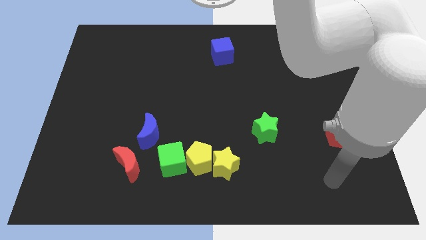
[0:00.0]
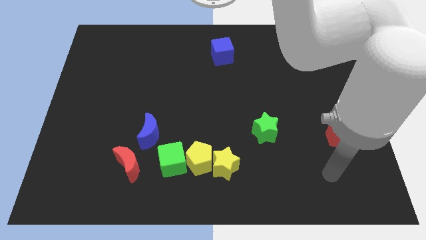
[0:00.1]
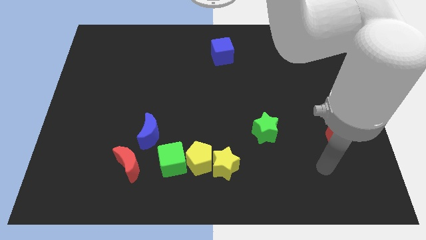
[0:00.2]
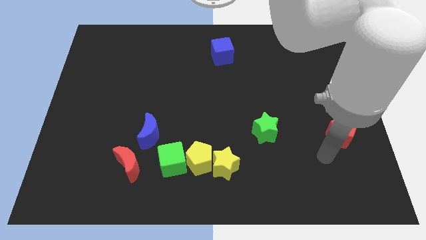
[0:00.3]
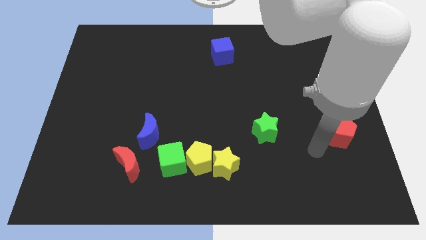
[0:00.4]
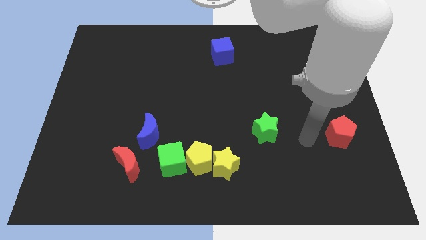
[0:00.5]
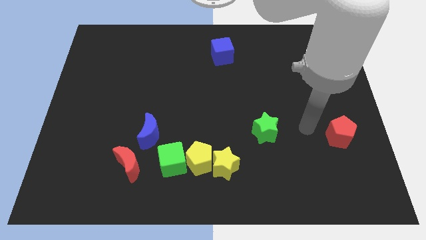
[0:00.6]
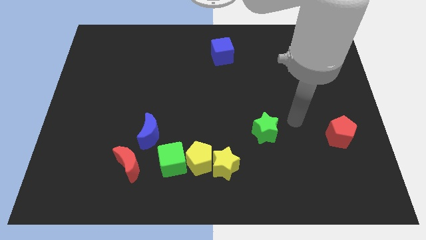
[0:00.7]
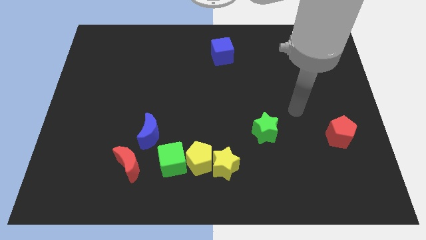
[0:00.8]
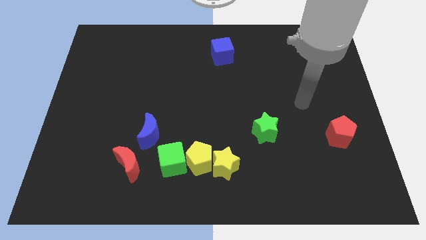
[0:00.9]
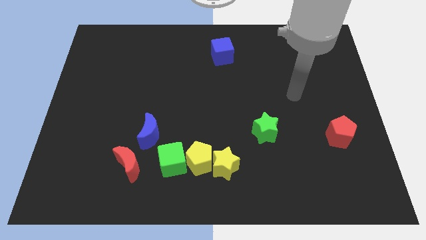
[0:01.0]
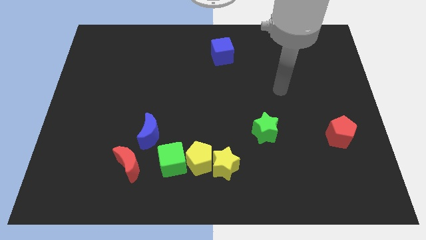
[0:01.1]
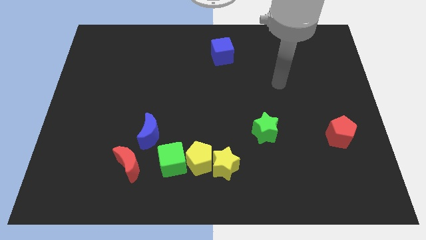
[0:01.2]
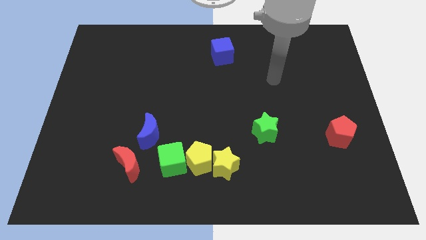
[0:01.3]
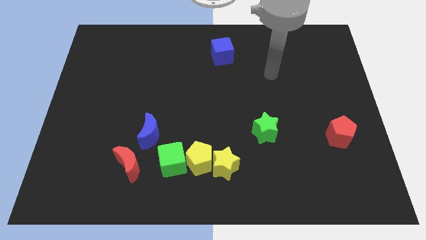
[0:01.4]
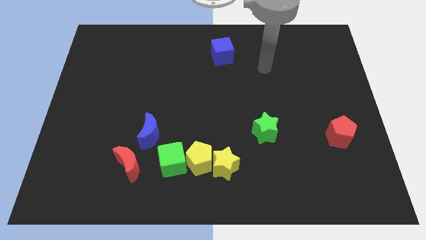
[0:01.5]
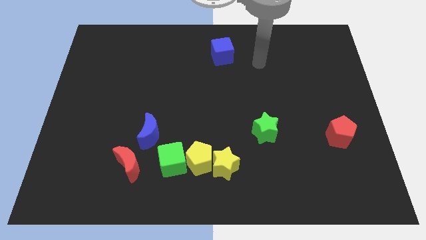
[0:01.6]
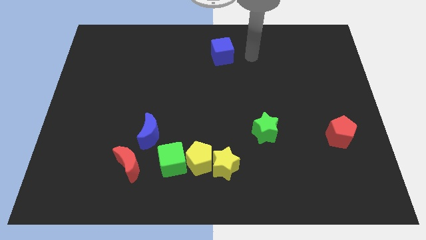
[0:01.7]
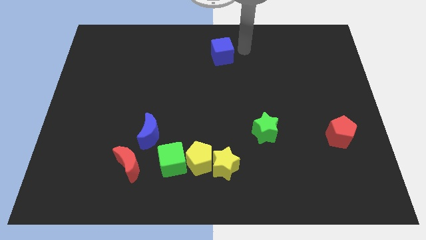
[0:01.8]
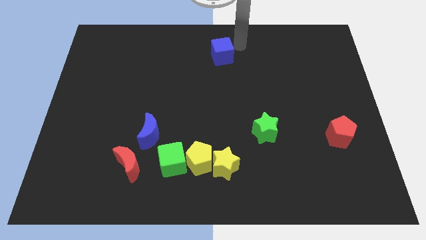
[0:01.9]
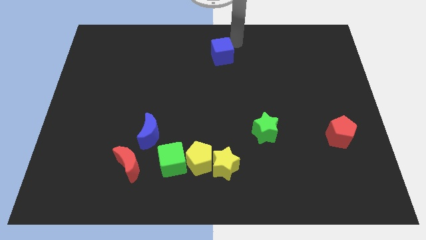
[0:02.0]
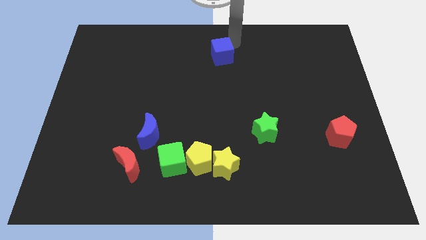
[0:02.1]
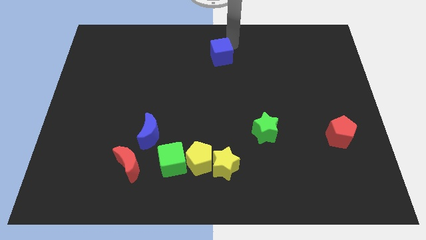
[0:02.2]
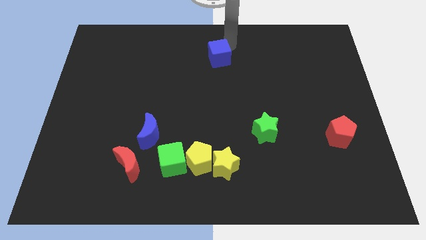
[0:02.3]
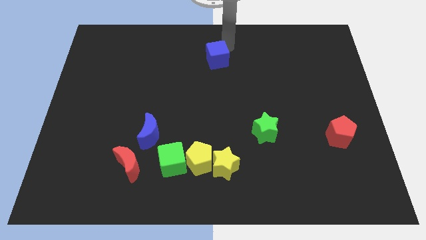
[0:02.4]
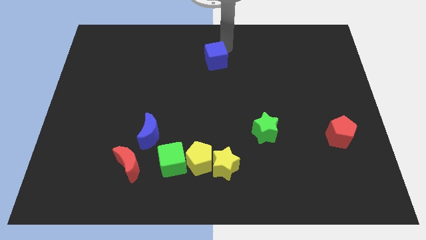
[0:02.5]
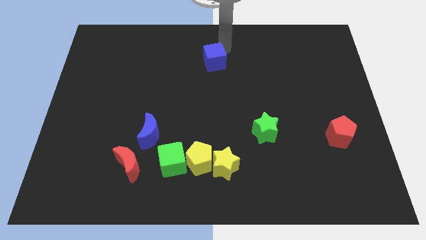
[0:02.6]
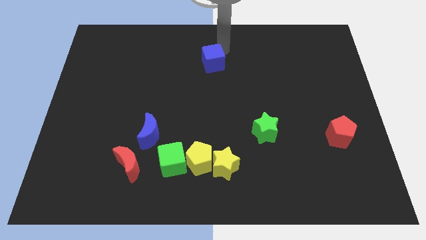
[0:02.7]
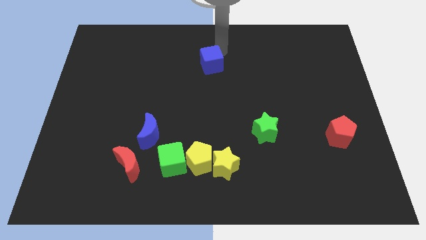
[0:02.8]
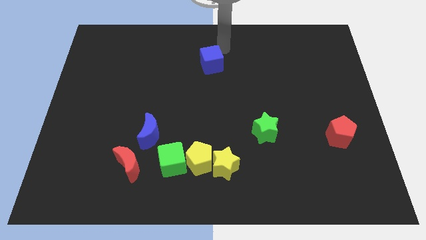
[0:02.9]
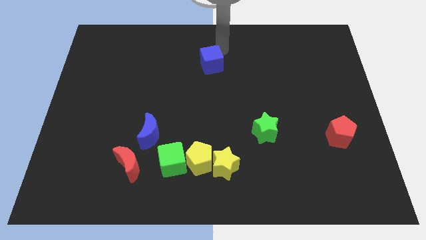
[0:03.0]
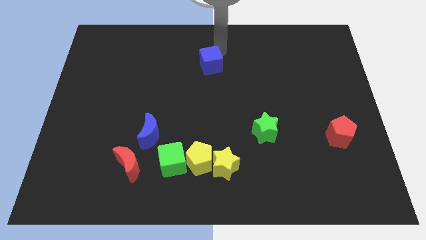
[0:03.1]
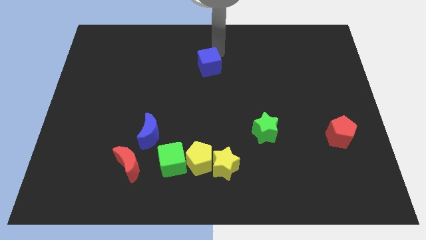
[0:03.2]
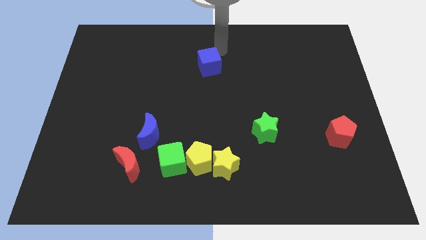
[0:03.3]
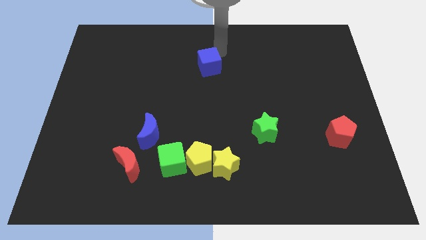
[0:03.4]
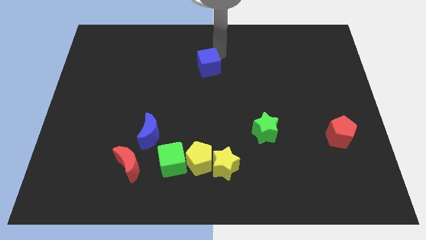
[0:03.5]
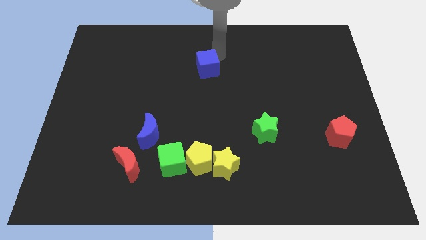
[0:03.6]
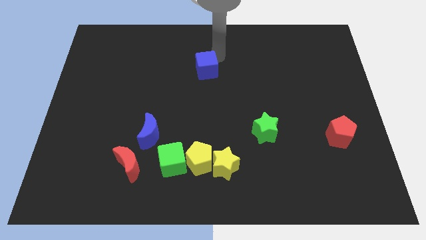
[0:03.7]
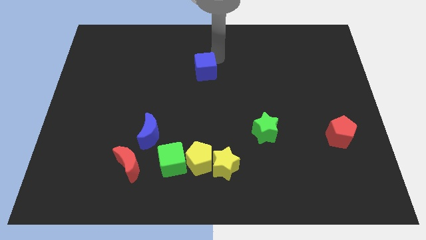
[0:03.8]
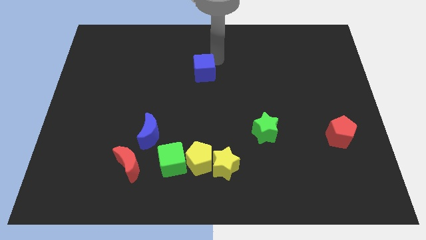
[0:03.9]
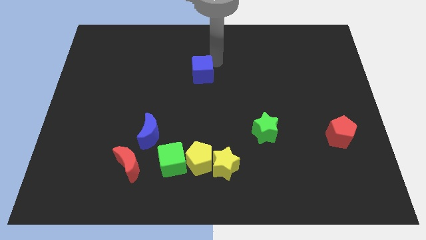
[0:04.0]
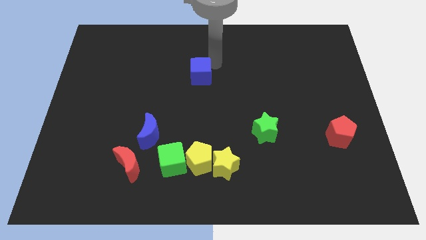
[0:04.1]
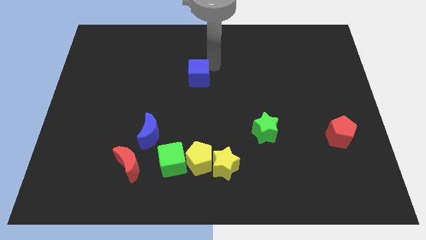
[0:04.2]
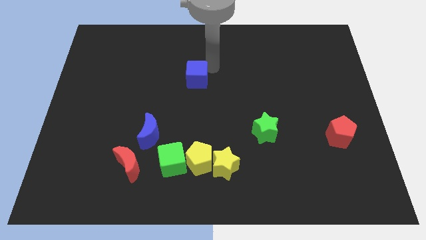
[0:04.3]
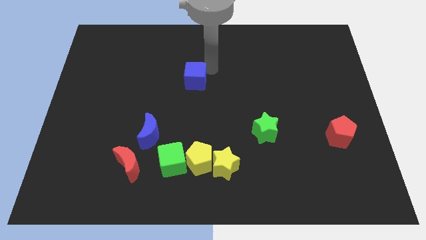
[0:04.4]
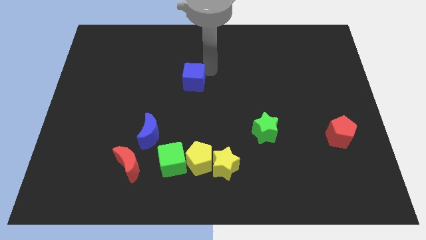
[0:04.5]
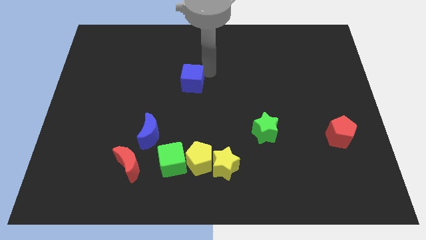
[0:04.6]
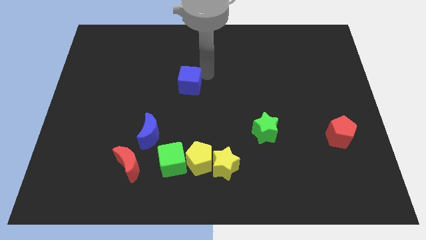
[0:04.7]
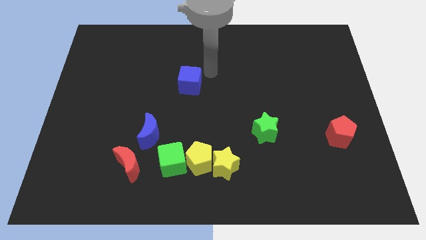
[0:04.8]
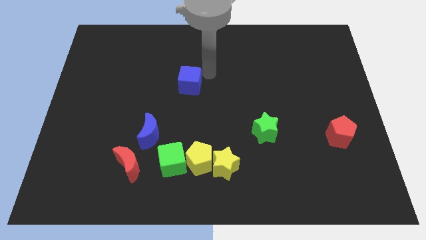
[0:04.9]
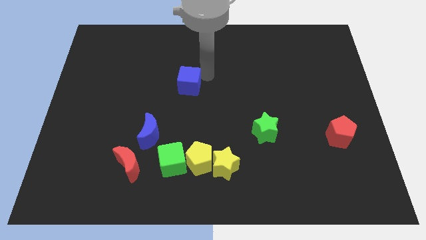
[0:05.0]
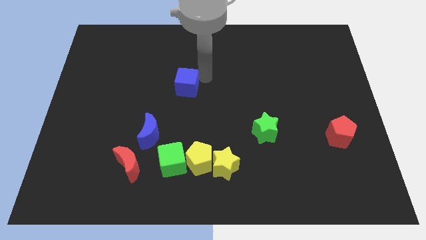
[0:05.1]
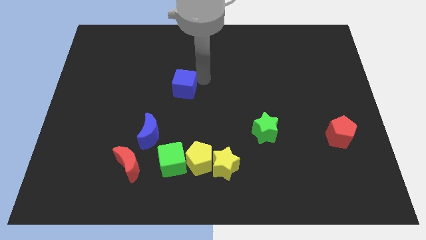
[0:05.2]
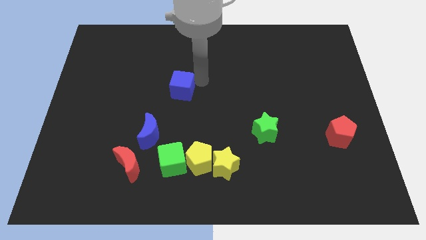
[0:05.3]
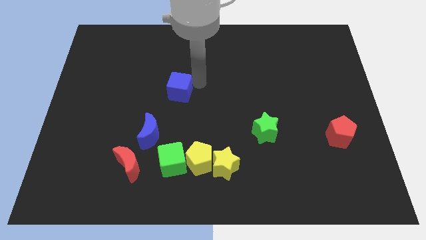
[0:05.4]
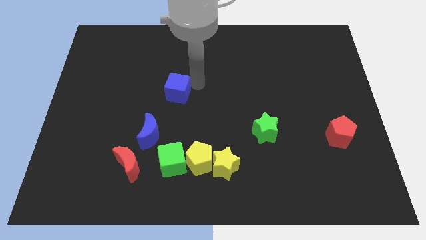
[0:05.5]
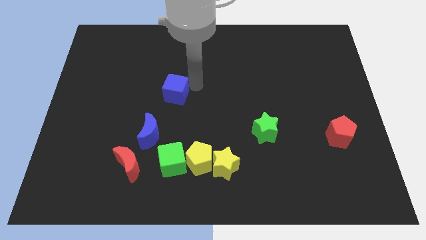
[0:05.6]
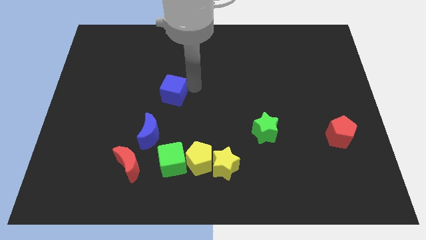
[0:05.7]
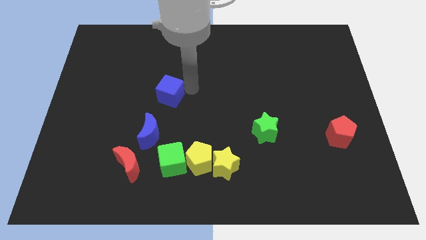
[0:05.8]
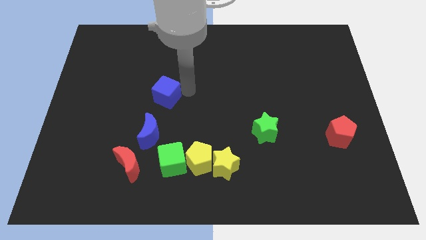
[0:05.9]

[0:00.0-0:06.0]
push the blue cube down and then left

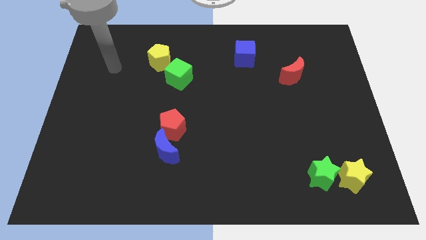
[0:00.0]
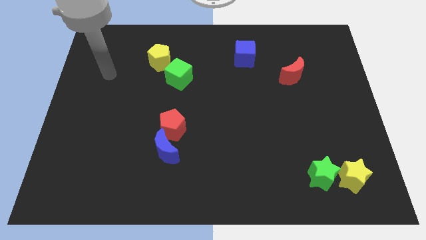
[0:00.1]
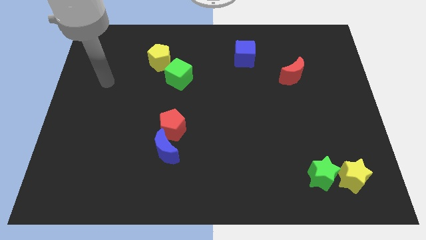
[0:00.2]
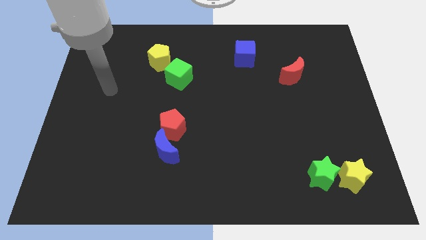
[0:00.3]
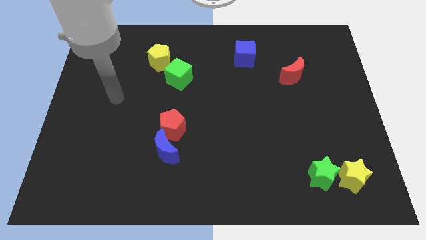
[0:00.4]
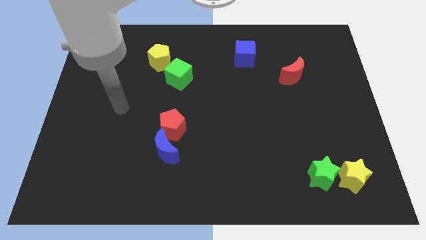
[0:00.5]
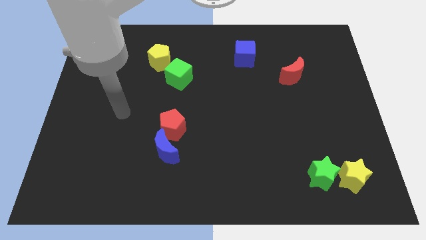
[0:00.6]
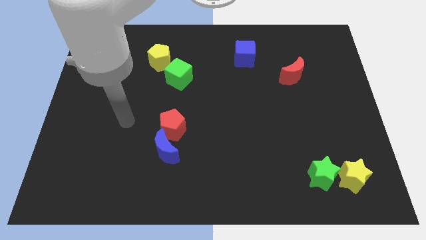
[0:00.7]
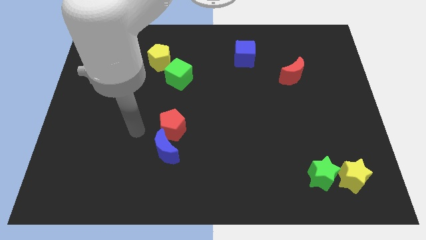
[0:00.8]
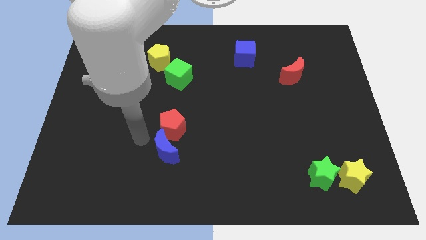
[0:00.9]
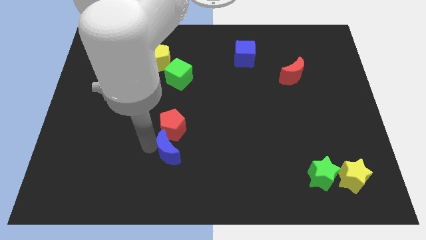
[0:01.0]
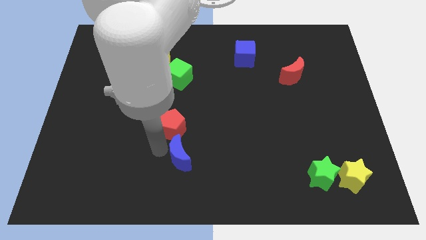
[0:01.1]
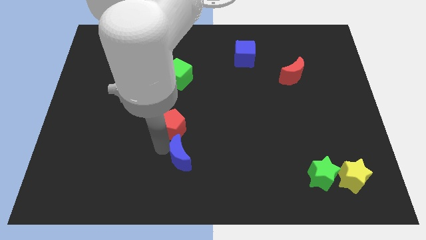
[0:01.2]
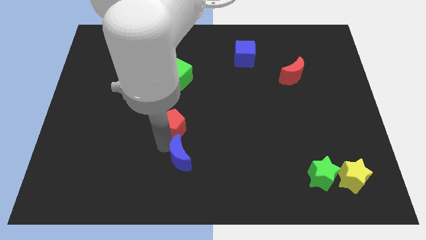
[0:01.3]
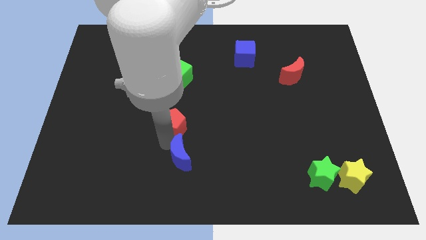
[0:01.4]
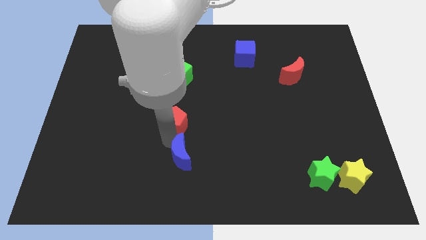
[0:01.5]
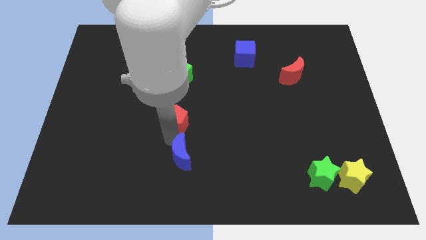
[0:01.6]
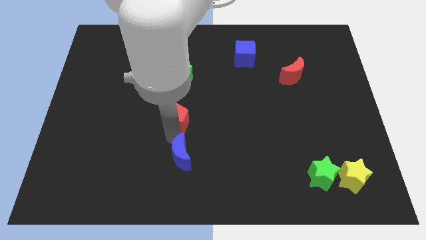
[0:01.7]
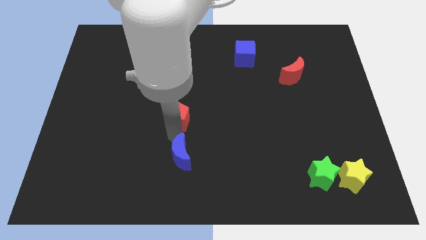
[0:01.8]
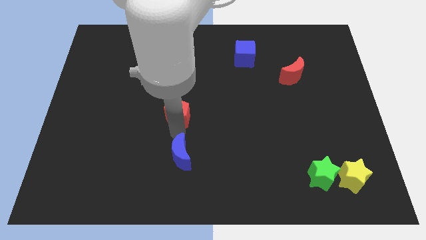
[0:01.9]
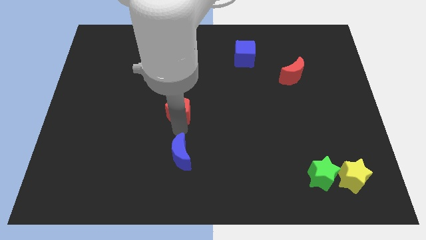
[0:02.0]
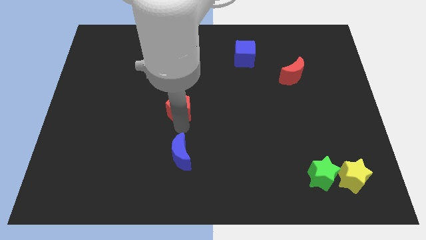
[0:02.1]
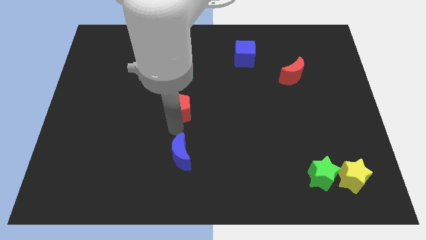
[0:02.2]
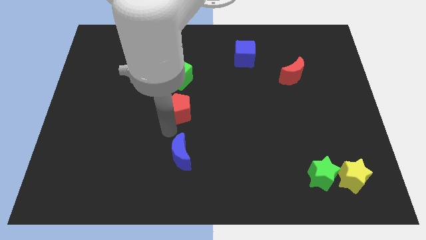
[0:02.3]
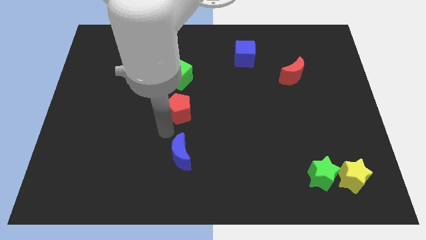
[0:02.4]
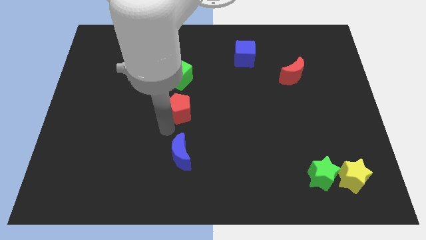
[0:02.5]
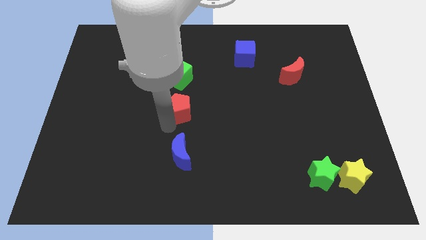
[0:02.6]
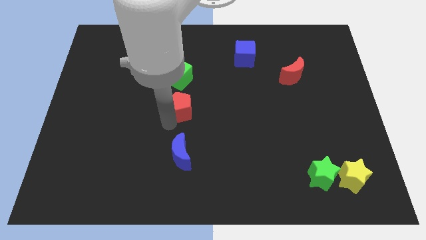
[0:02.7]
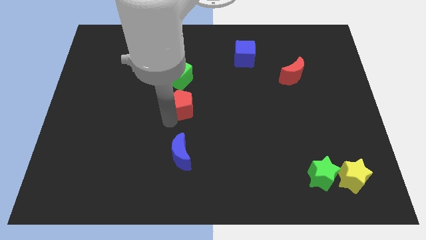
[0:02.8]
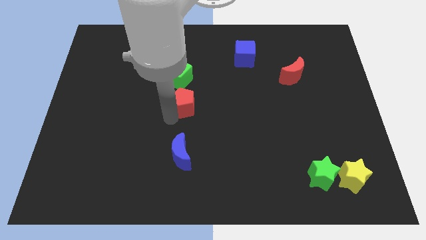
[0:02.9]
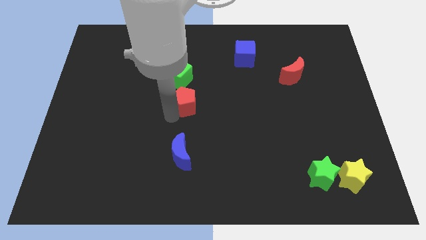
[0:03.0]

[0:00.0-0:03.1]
slightly move the red pentagon up
